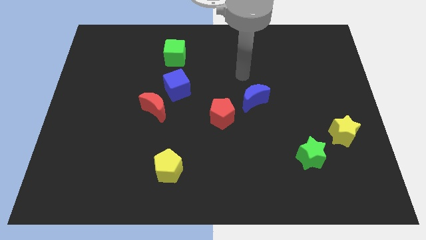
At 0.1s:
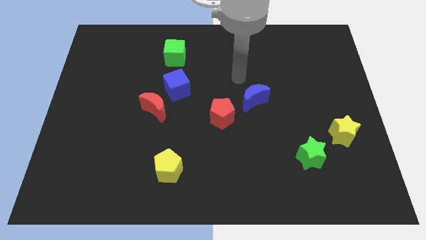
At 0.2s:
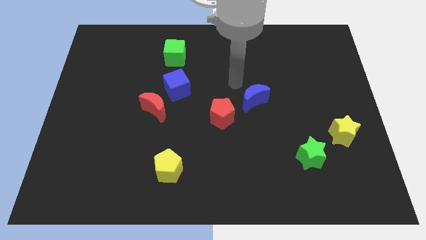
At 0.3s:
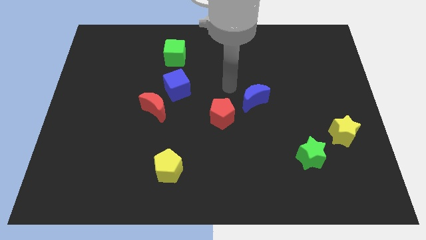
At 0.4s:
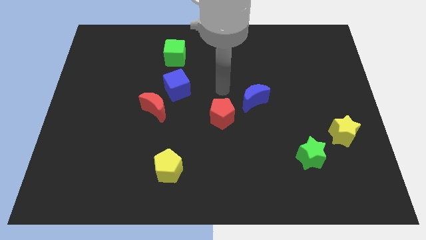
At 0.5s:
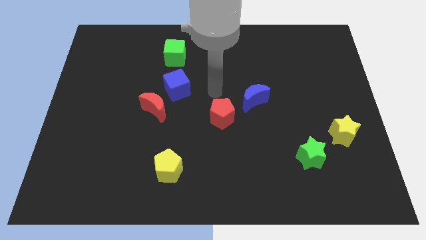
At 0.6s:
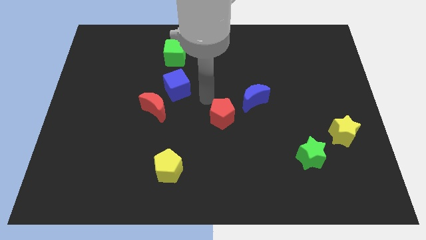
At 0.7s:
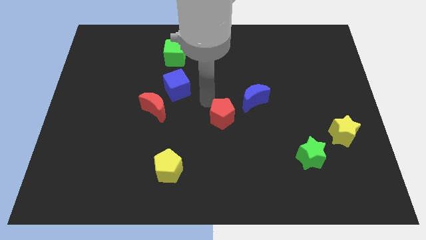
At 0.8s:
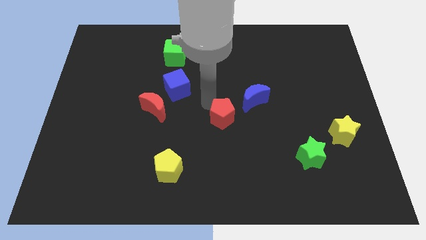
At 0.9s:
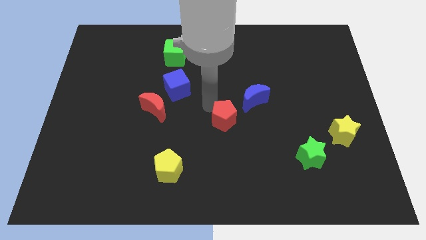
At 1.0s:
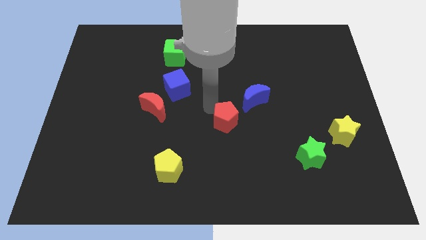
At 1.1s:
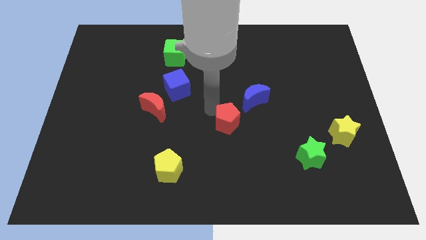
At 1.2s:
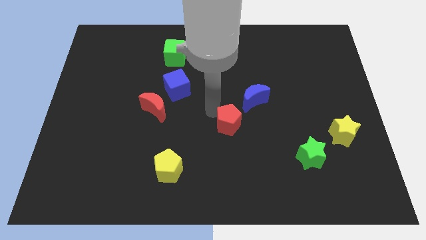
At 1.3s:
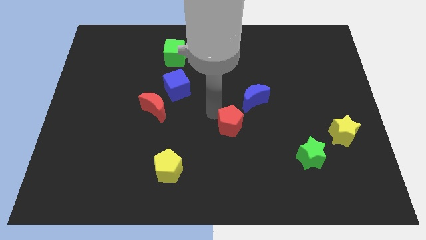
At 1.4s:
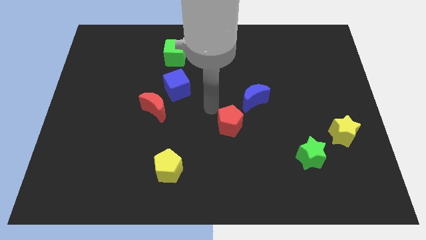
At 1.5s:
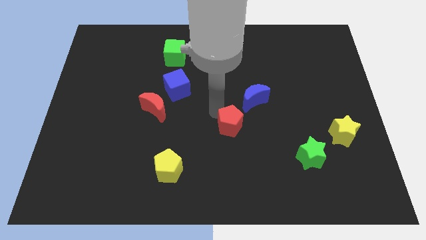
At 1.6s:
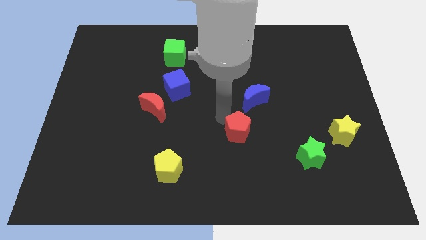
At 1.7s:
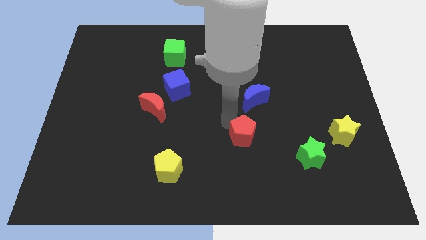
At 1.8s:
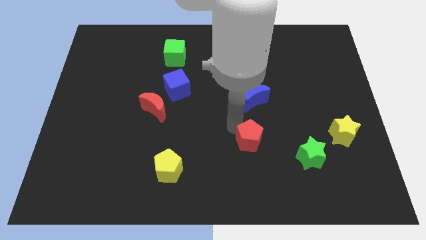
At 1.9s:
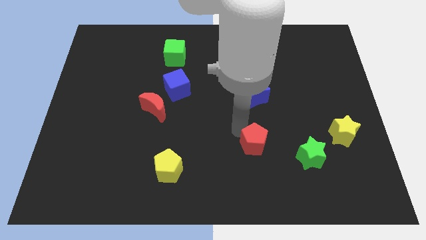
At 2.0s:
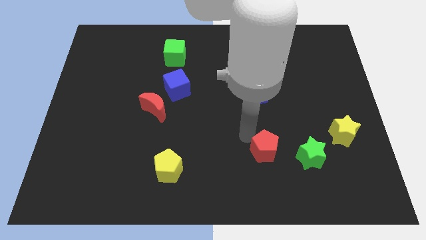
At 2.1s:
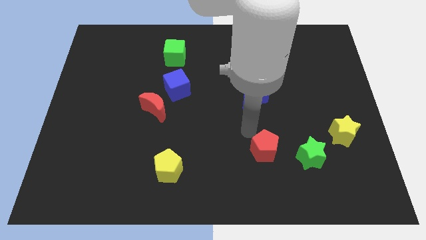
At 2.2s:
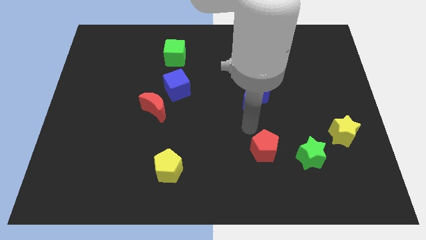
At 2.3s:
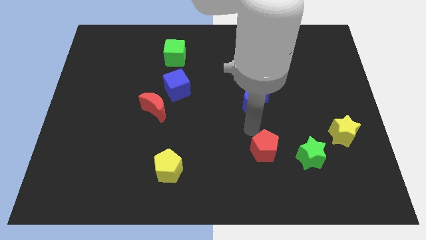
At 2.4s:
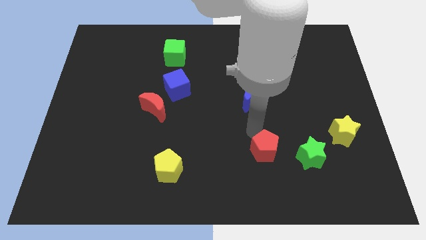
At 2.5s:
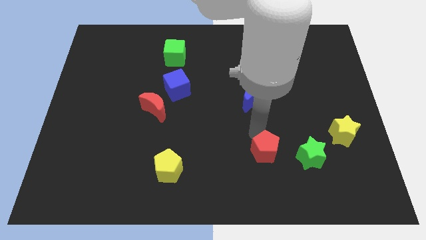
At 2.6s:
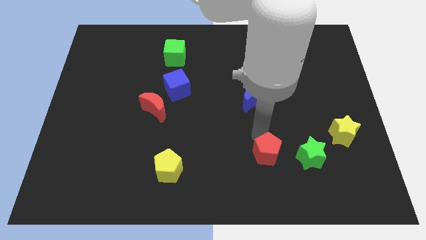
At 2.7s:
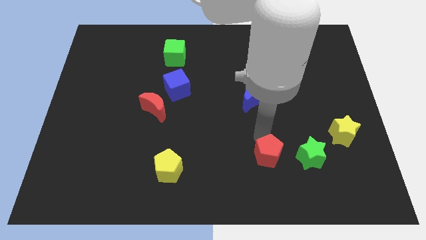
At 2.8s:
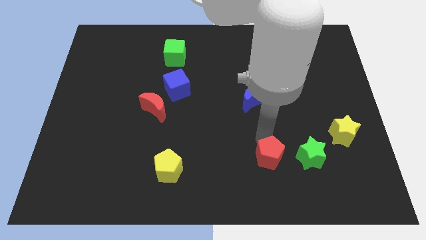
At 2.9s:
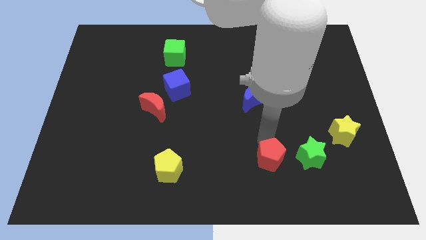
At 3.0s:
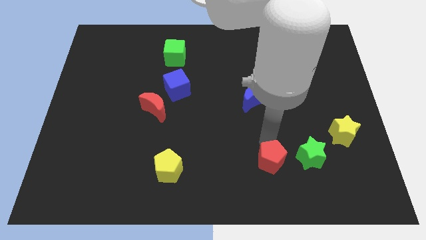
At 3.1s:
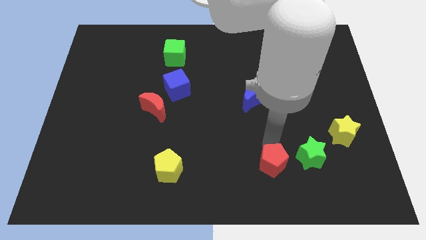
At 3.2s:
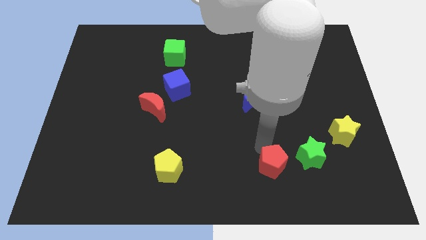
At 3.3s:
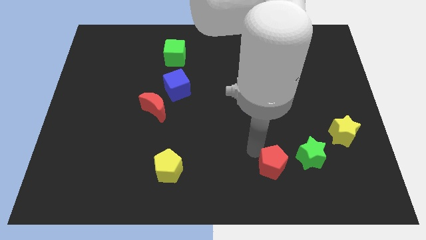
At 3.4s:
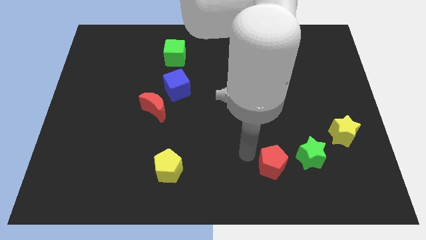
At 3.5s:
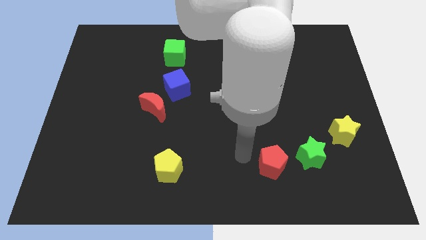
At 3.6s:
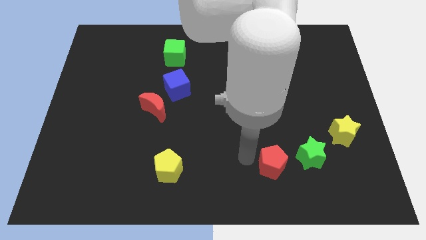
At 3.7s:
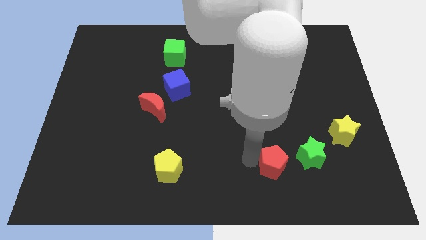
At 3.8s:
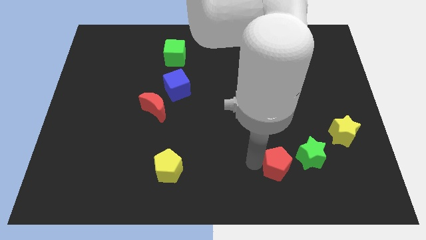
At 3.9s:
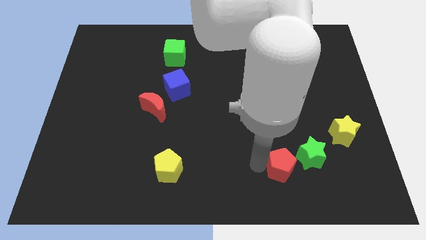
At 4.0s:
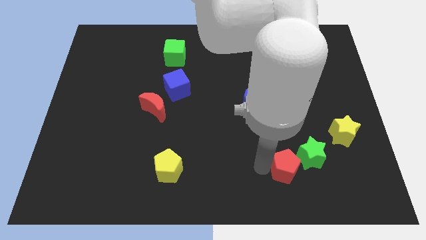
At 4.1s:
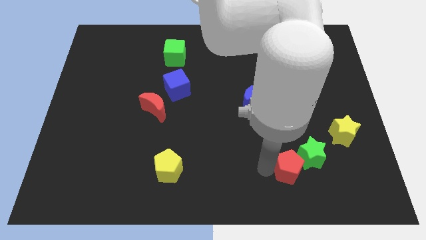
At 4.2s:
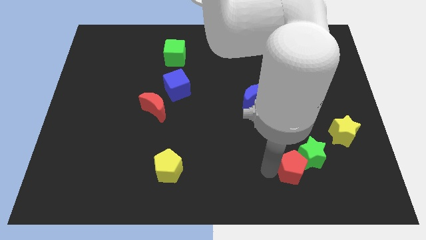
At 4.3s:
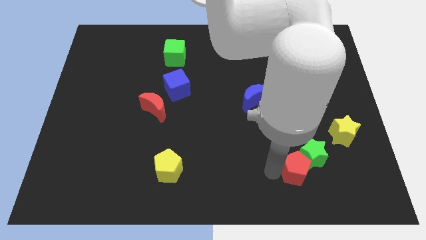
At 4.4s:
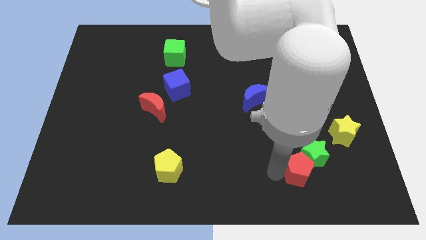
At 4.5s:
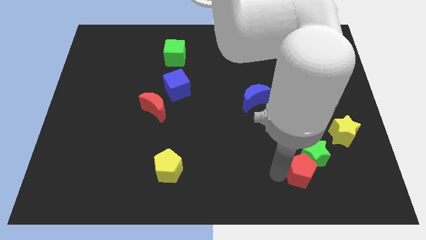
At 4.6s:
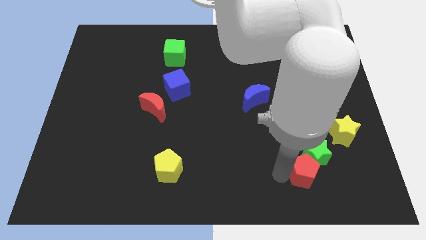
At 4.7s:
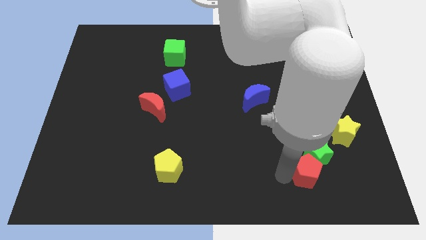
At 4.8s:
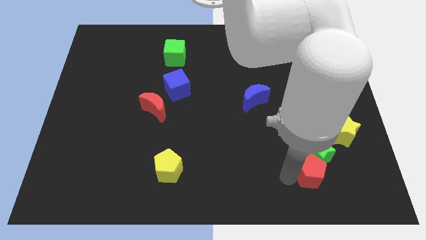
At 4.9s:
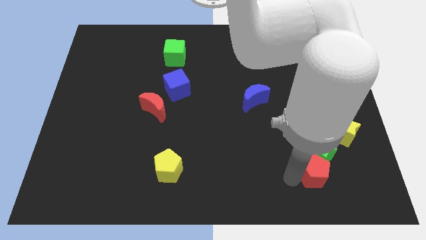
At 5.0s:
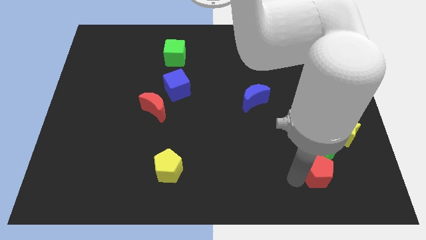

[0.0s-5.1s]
slide the red pentagon to the bottom right side of the green star

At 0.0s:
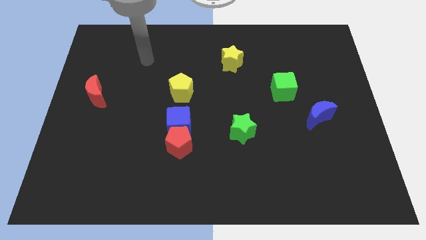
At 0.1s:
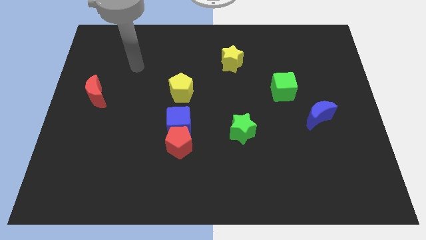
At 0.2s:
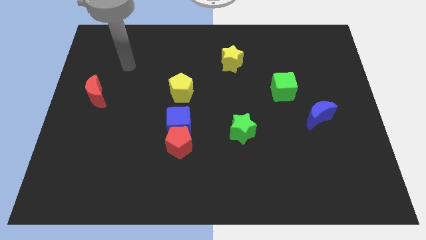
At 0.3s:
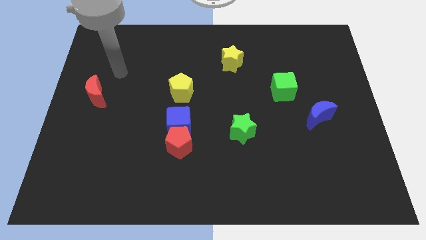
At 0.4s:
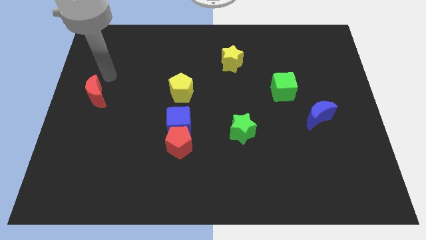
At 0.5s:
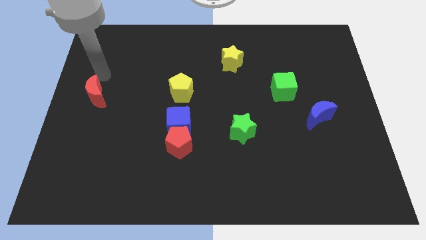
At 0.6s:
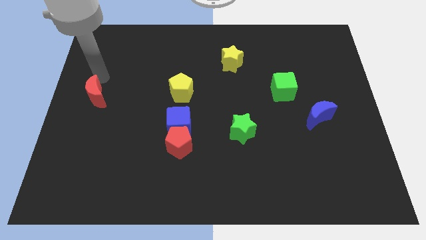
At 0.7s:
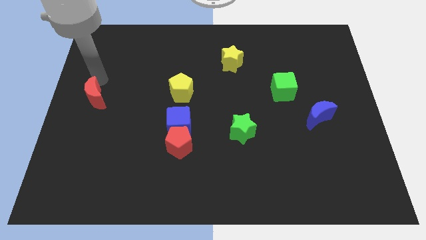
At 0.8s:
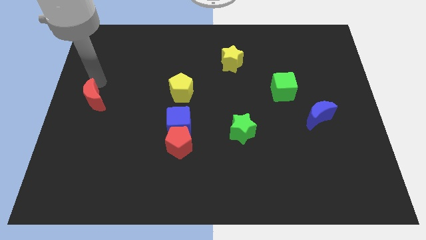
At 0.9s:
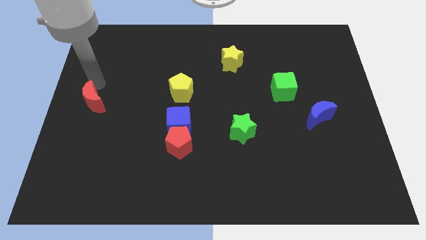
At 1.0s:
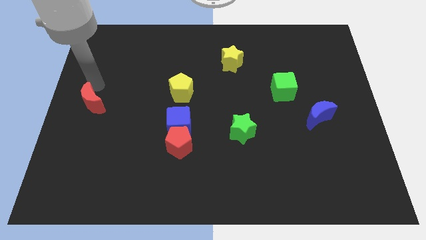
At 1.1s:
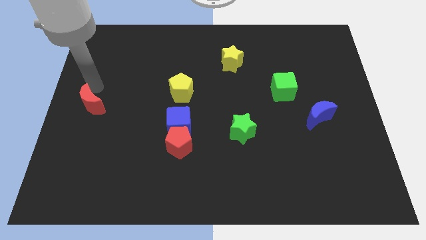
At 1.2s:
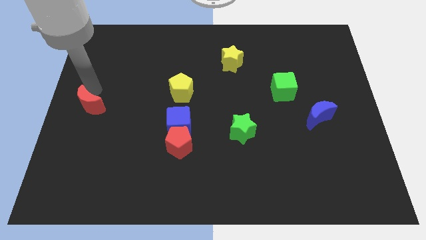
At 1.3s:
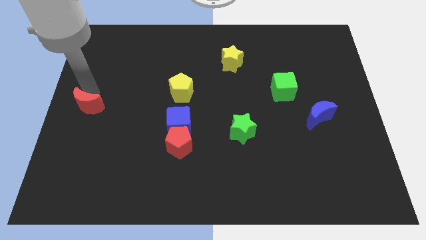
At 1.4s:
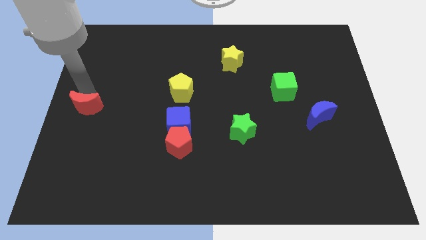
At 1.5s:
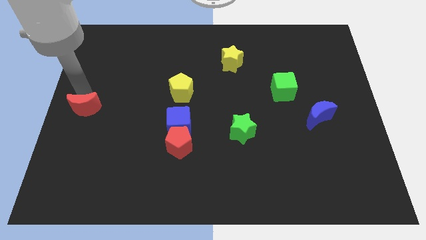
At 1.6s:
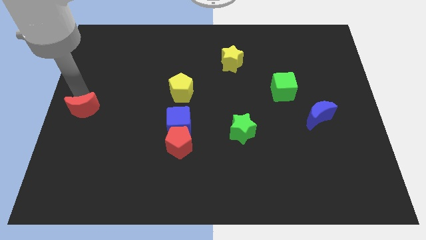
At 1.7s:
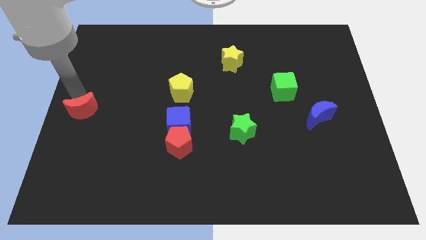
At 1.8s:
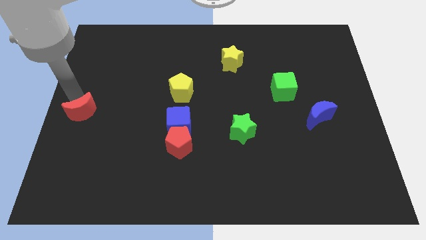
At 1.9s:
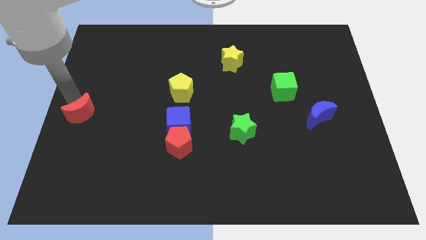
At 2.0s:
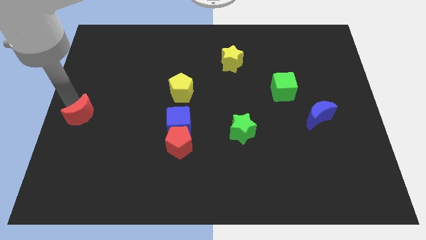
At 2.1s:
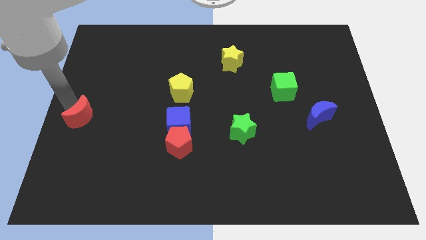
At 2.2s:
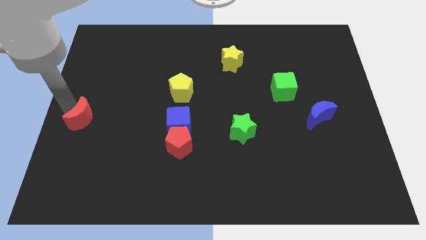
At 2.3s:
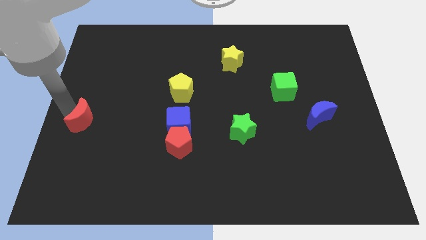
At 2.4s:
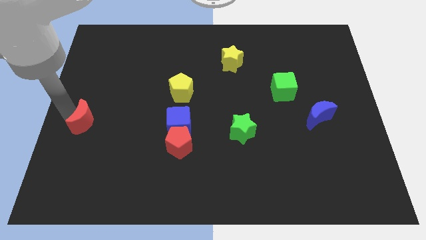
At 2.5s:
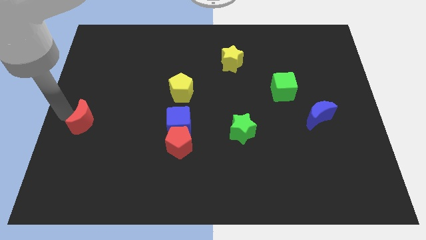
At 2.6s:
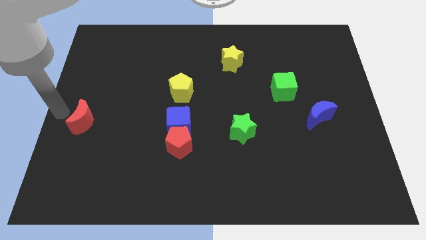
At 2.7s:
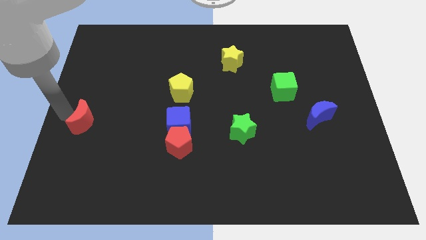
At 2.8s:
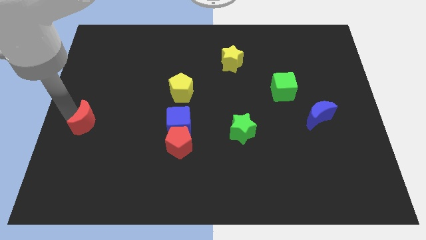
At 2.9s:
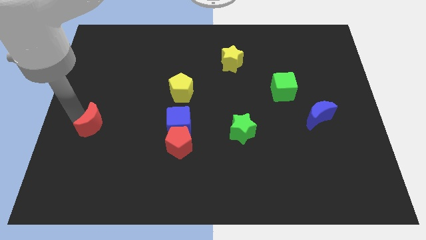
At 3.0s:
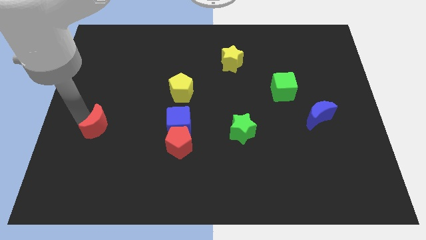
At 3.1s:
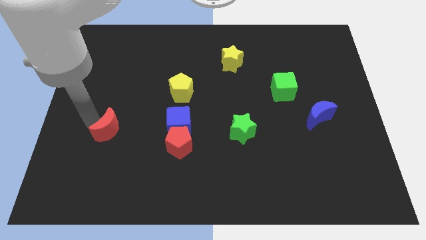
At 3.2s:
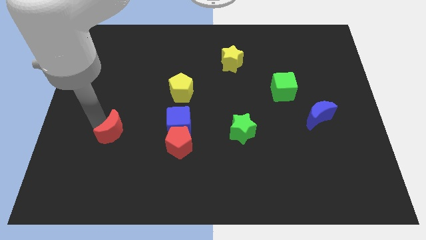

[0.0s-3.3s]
push the red moon to the left side of the red pentagon
